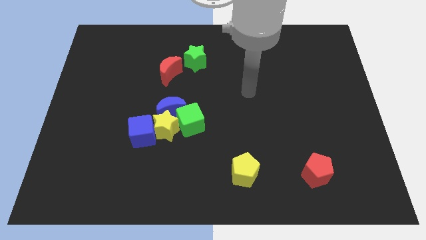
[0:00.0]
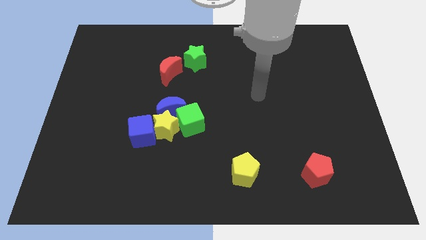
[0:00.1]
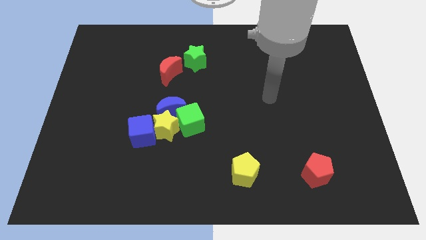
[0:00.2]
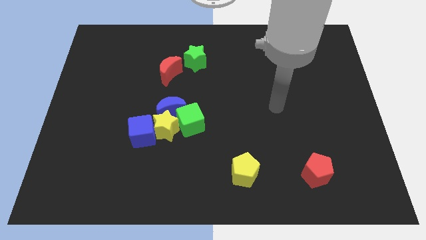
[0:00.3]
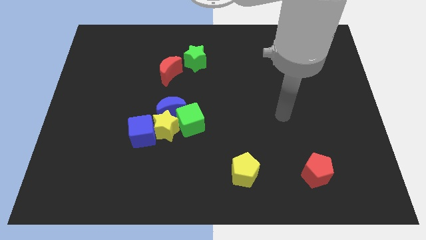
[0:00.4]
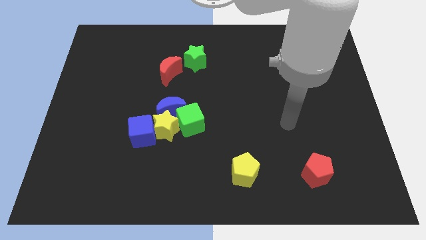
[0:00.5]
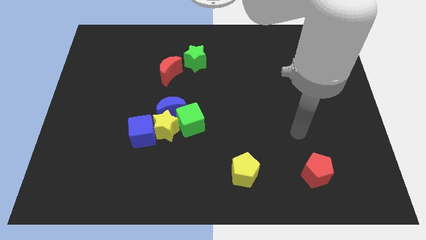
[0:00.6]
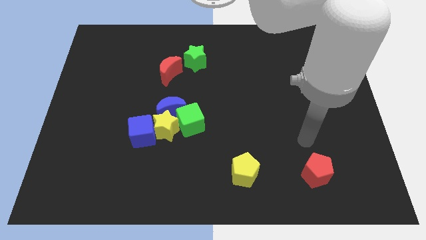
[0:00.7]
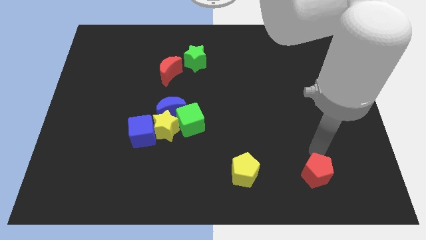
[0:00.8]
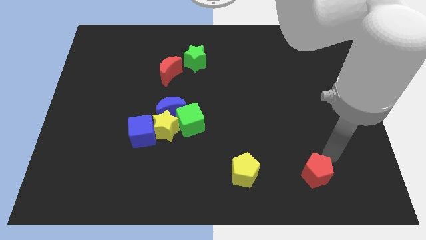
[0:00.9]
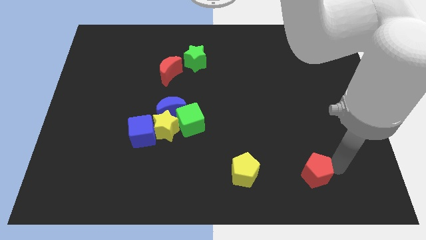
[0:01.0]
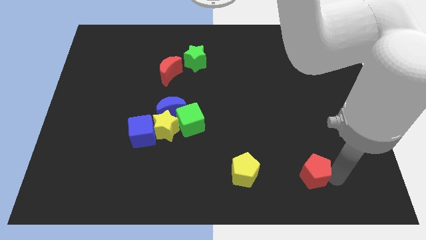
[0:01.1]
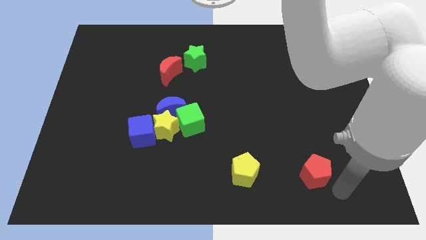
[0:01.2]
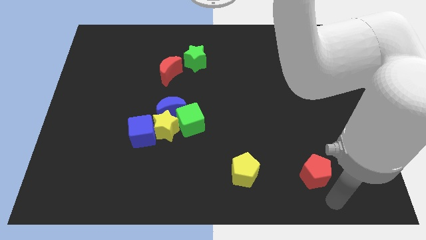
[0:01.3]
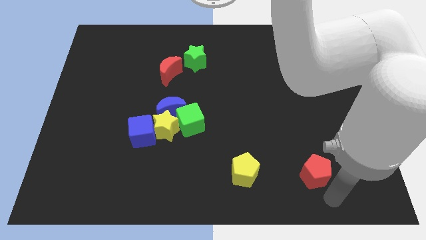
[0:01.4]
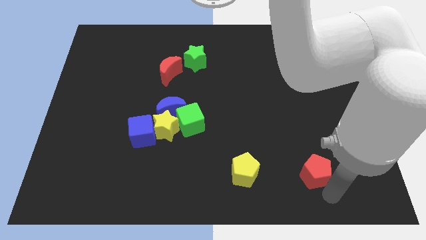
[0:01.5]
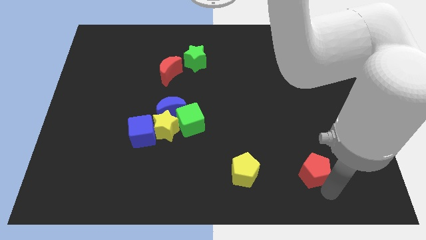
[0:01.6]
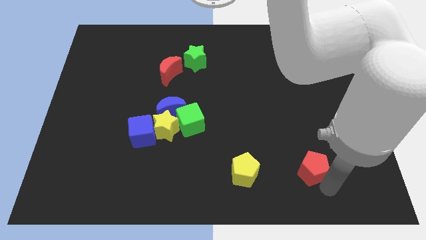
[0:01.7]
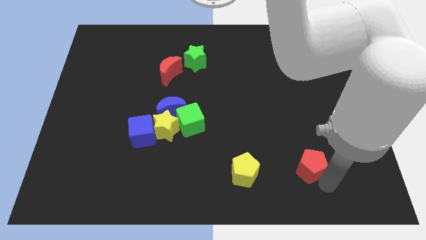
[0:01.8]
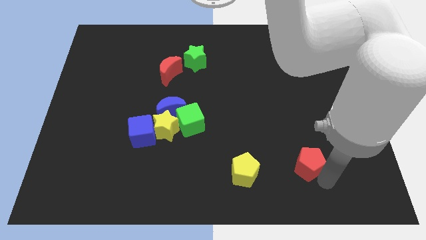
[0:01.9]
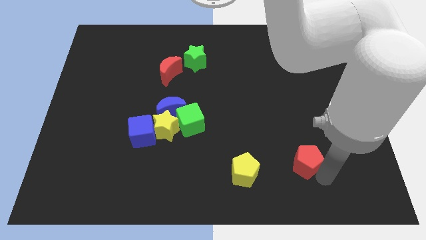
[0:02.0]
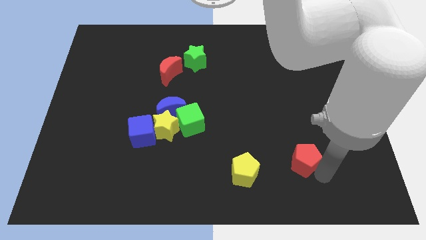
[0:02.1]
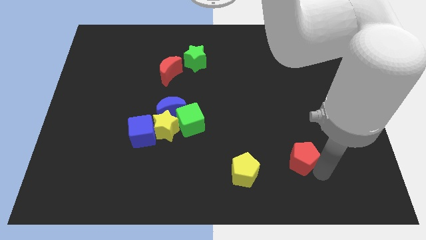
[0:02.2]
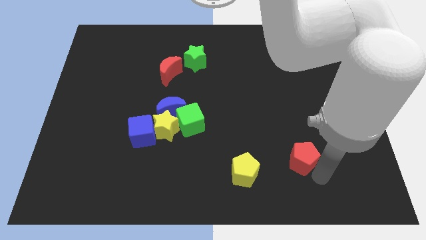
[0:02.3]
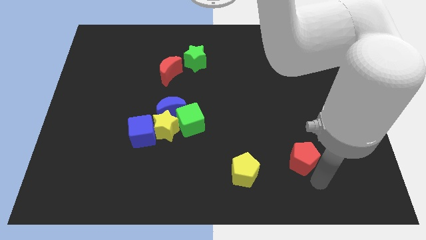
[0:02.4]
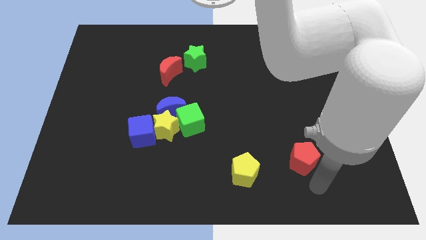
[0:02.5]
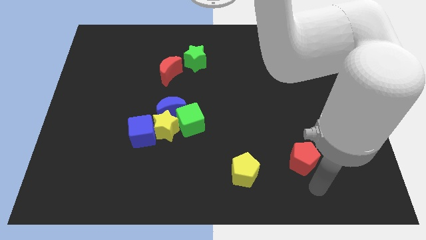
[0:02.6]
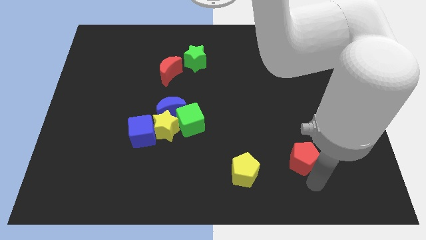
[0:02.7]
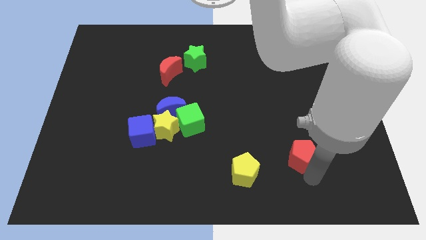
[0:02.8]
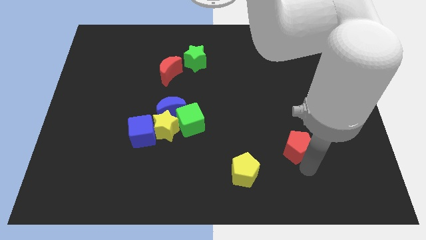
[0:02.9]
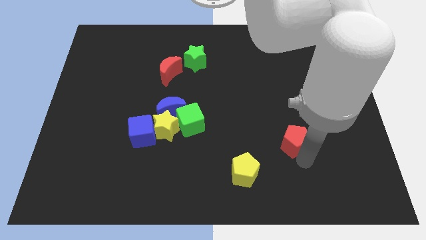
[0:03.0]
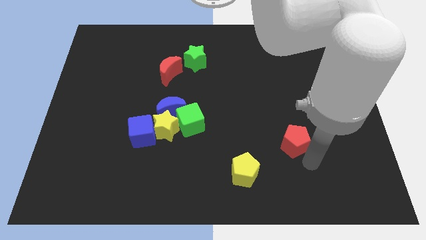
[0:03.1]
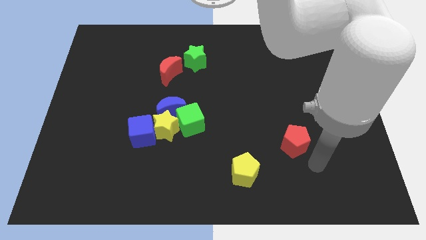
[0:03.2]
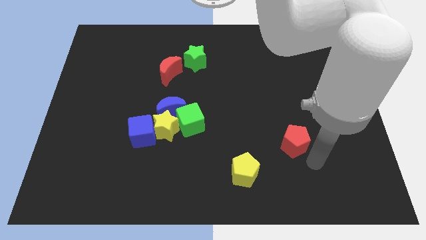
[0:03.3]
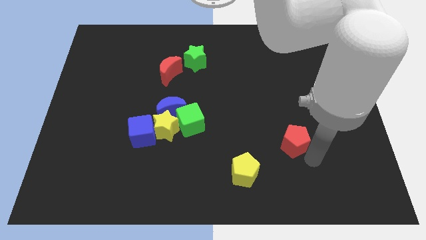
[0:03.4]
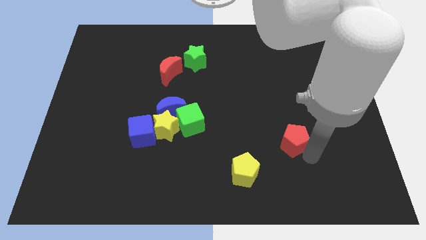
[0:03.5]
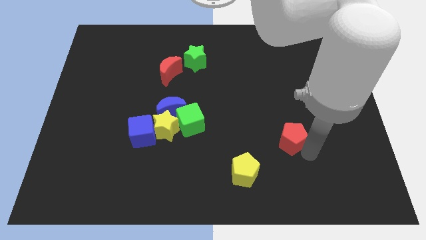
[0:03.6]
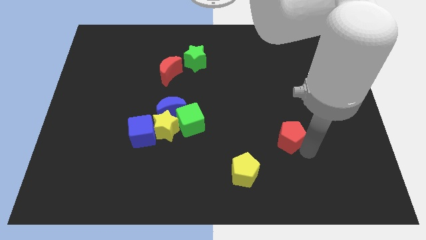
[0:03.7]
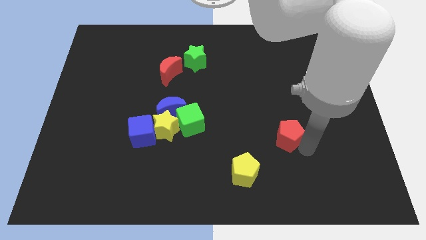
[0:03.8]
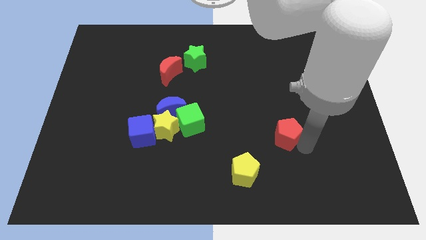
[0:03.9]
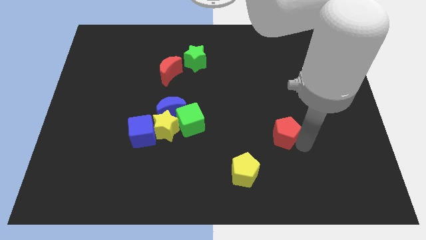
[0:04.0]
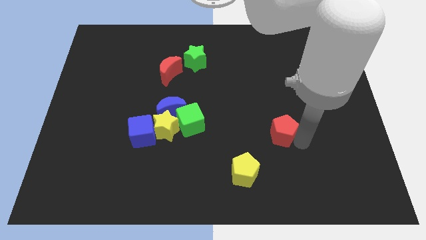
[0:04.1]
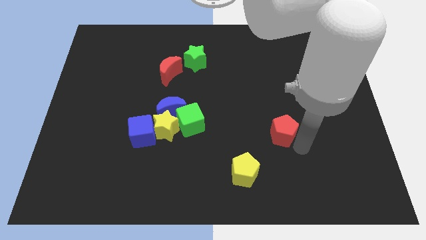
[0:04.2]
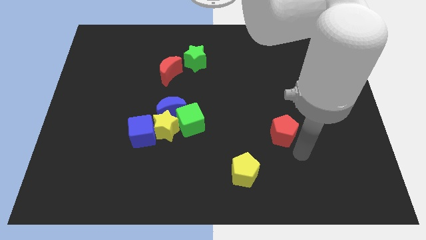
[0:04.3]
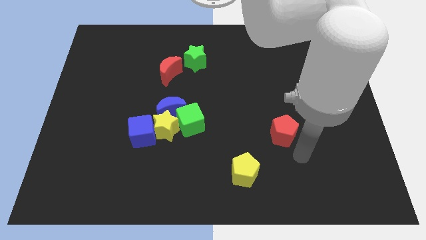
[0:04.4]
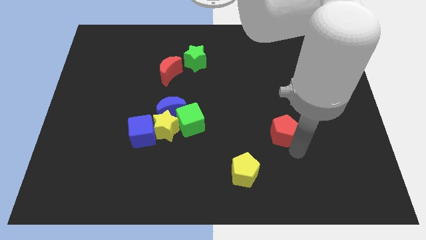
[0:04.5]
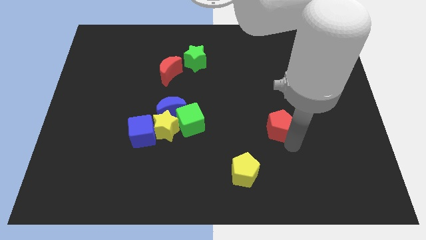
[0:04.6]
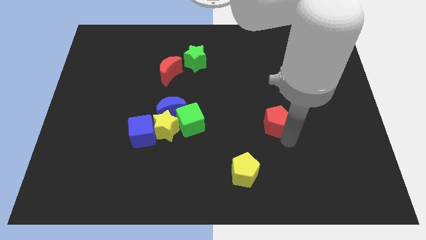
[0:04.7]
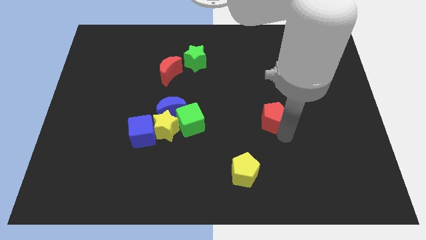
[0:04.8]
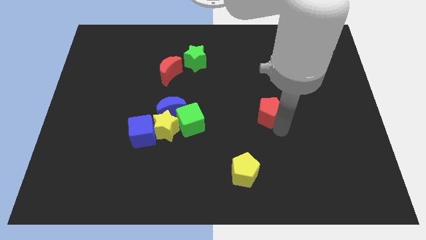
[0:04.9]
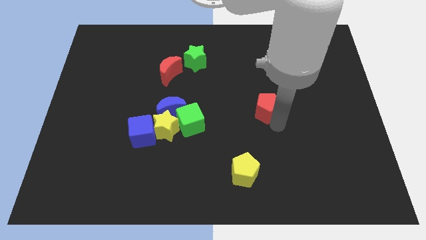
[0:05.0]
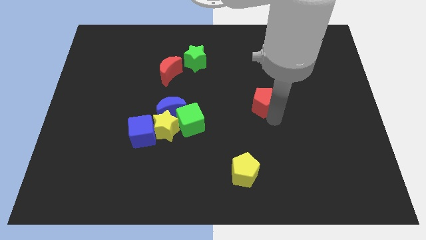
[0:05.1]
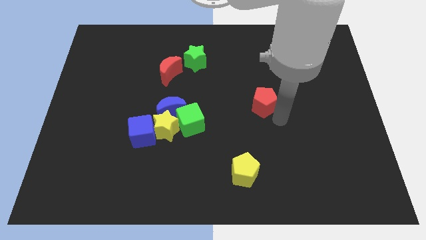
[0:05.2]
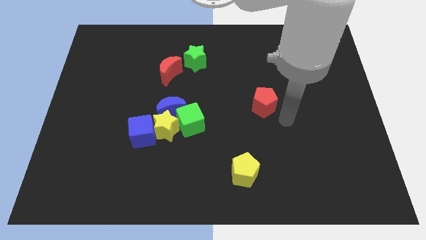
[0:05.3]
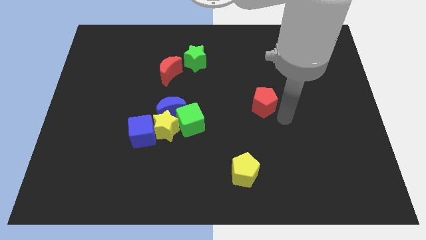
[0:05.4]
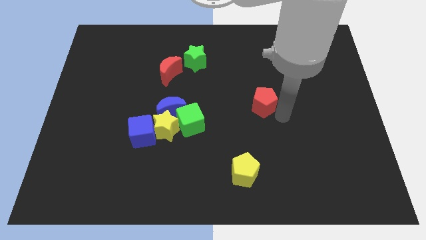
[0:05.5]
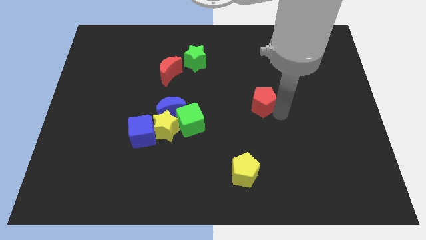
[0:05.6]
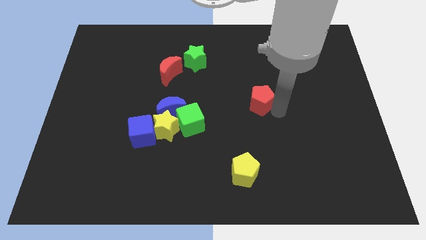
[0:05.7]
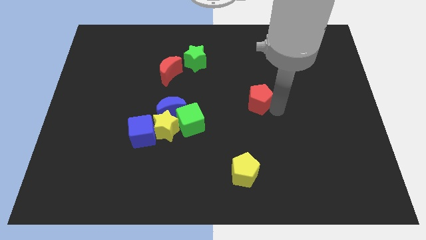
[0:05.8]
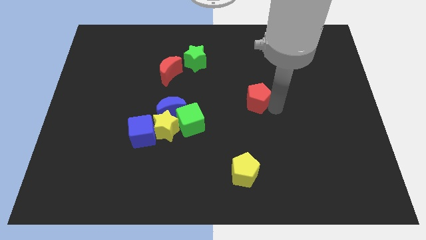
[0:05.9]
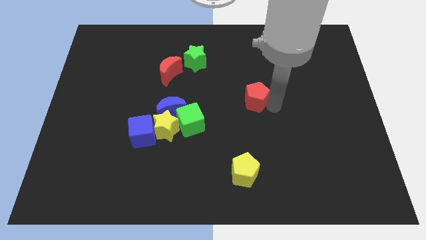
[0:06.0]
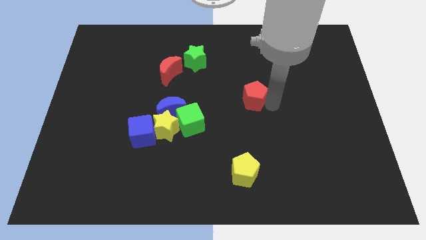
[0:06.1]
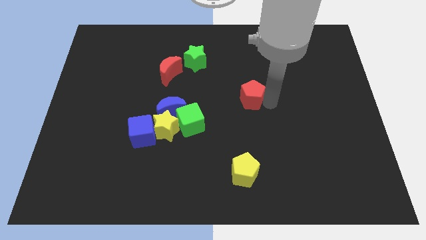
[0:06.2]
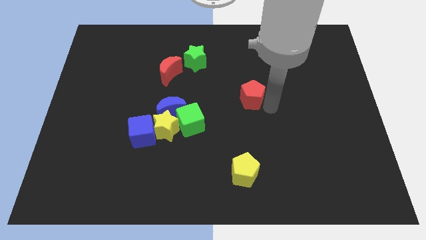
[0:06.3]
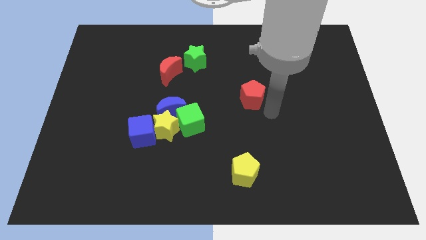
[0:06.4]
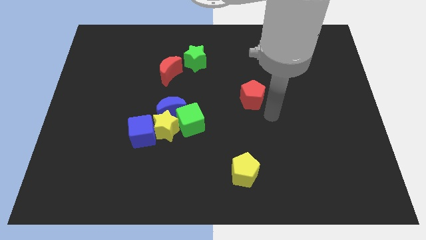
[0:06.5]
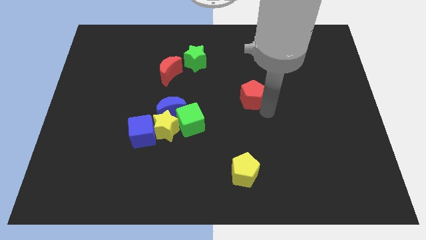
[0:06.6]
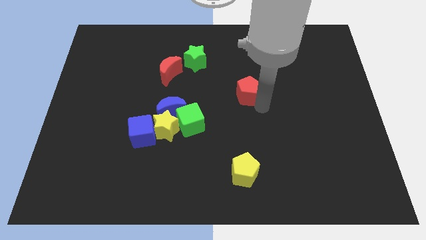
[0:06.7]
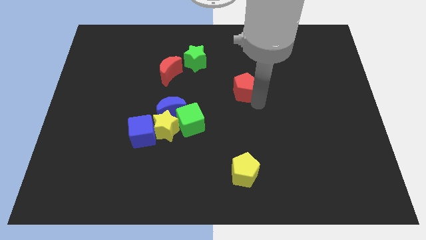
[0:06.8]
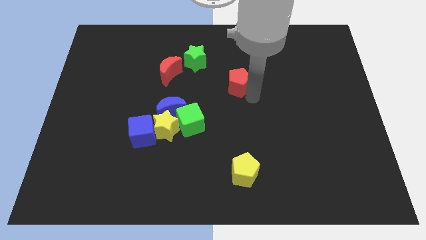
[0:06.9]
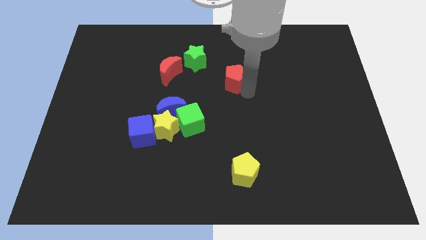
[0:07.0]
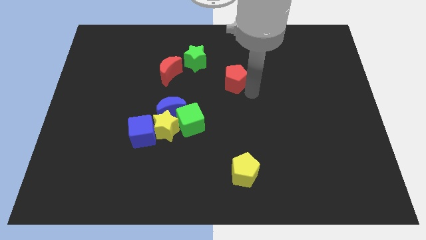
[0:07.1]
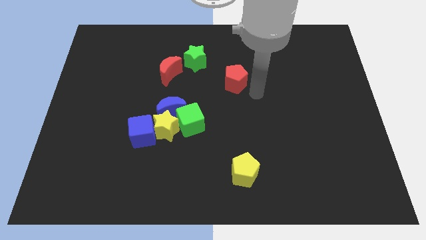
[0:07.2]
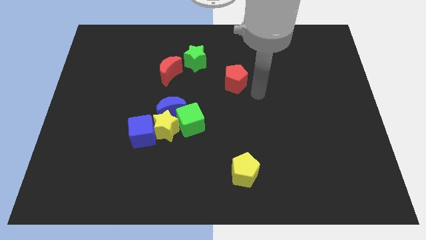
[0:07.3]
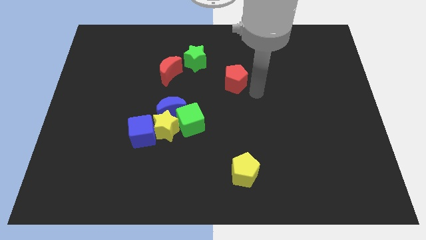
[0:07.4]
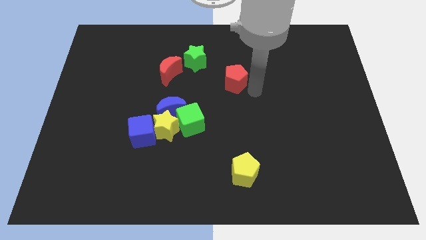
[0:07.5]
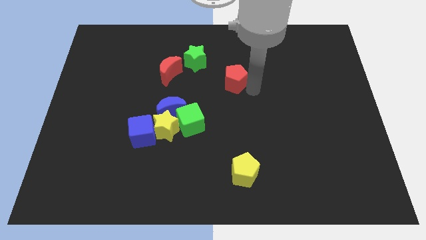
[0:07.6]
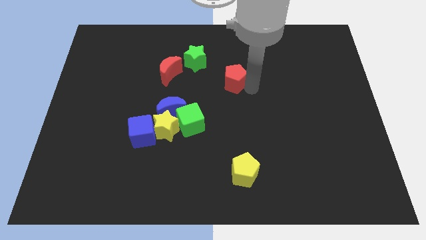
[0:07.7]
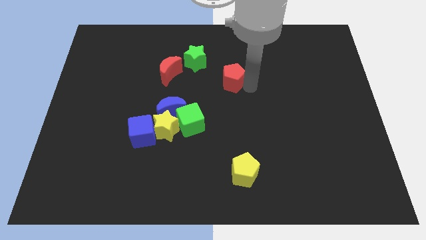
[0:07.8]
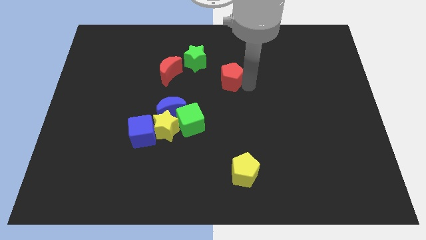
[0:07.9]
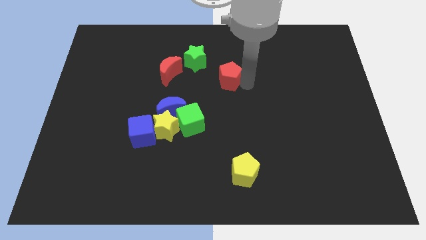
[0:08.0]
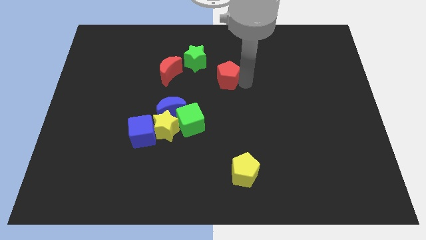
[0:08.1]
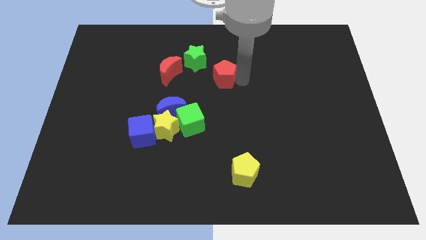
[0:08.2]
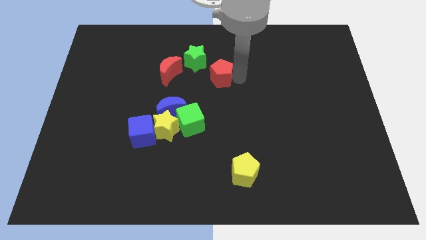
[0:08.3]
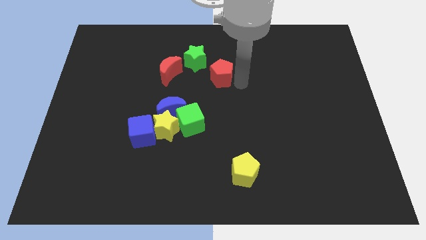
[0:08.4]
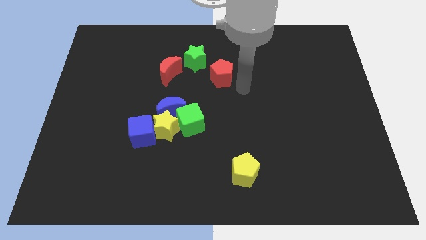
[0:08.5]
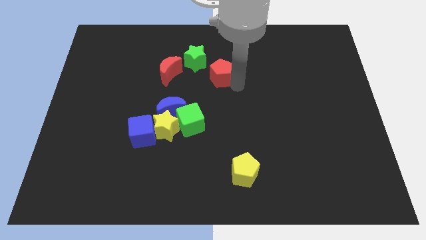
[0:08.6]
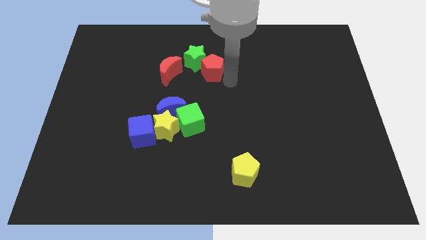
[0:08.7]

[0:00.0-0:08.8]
move the red pentagon close to the green star
